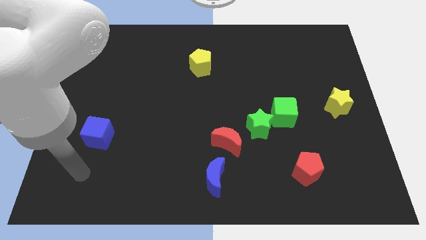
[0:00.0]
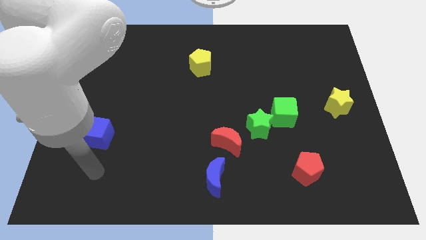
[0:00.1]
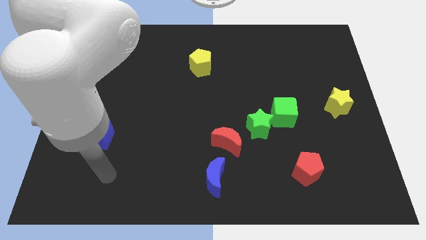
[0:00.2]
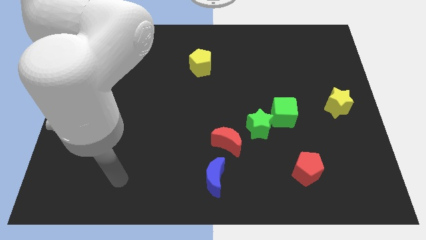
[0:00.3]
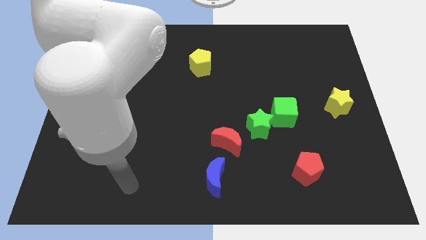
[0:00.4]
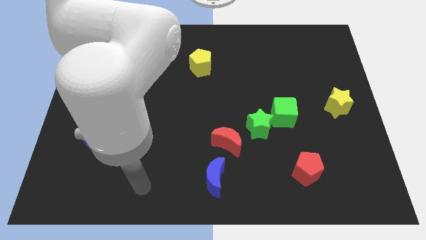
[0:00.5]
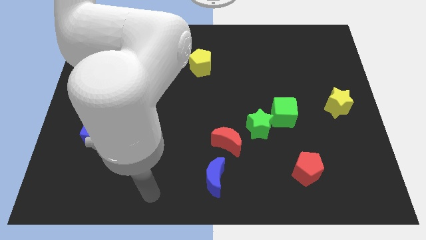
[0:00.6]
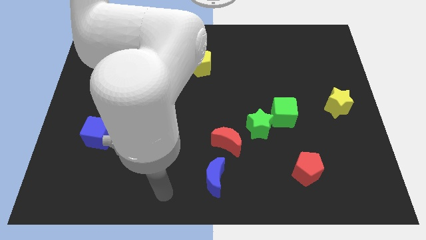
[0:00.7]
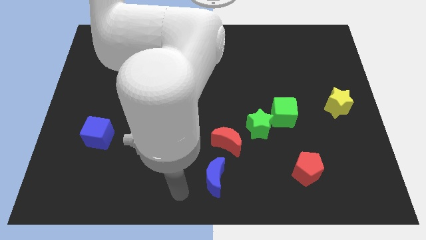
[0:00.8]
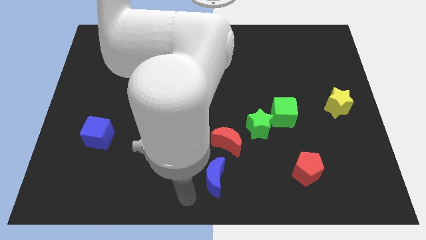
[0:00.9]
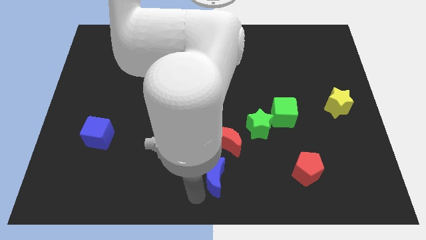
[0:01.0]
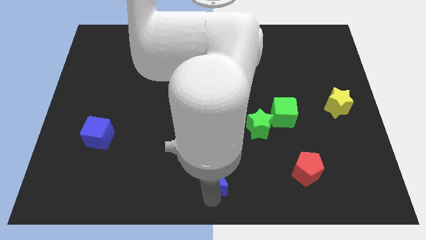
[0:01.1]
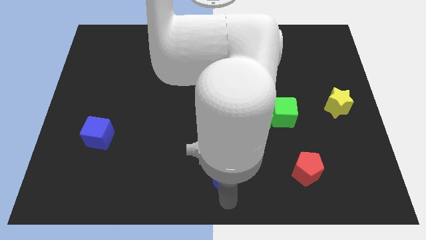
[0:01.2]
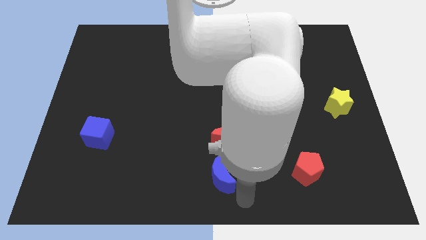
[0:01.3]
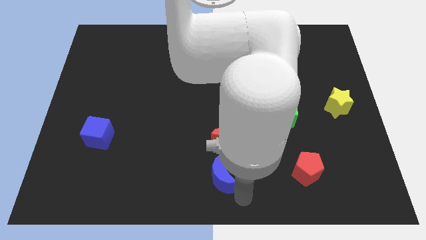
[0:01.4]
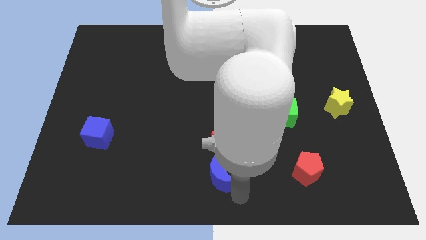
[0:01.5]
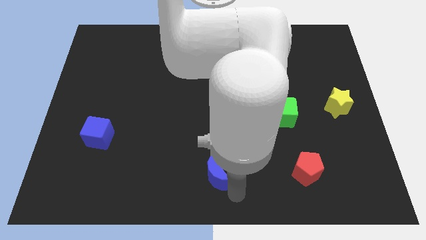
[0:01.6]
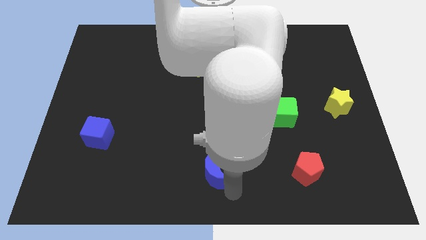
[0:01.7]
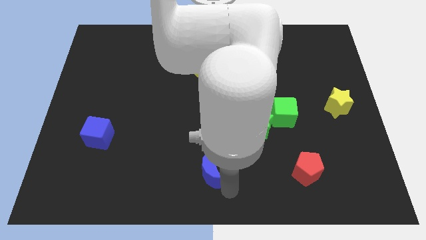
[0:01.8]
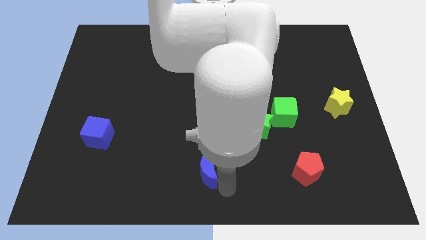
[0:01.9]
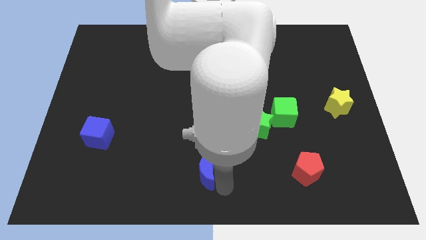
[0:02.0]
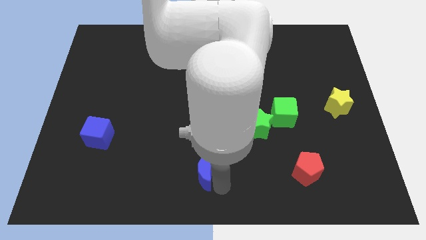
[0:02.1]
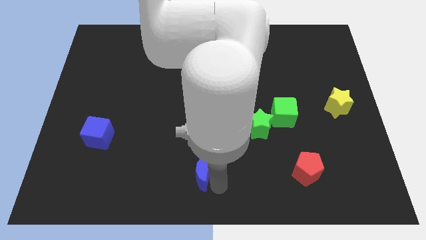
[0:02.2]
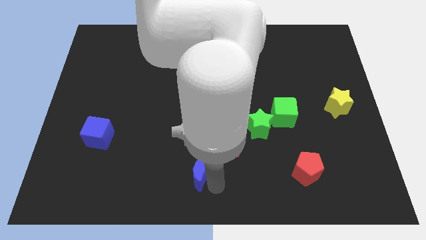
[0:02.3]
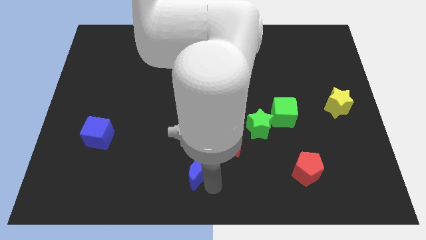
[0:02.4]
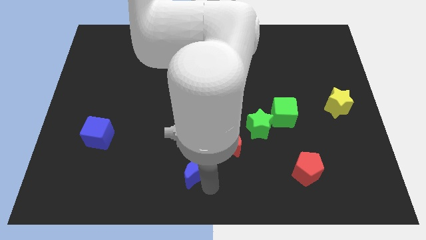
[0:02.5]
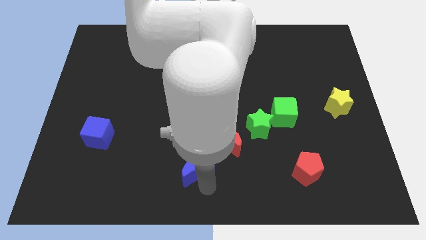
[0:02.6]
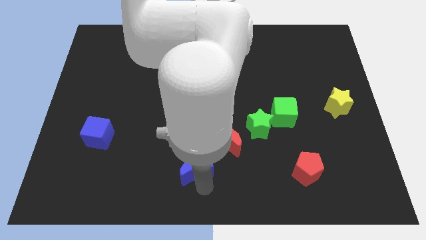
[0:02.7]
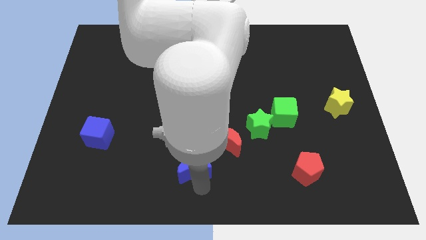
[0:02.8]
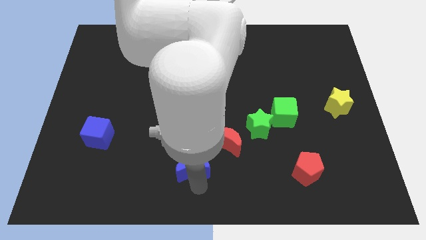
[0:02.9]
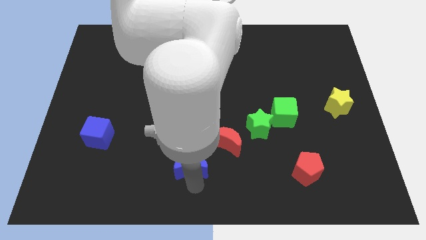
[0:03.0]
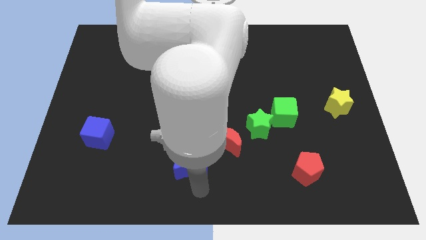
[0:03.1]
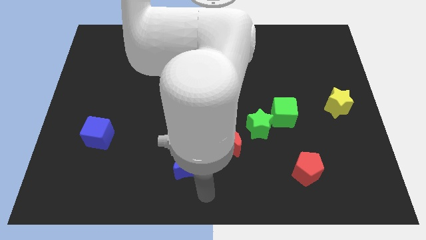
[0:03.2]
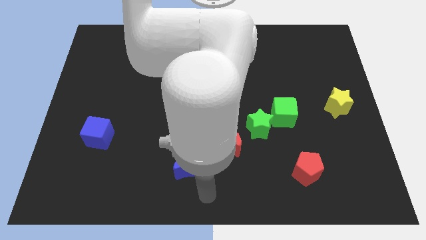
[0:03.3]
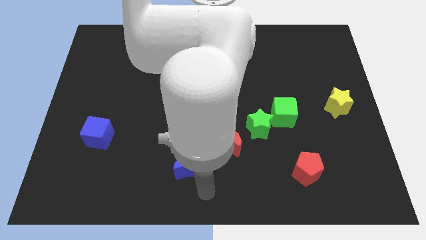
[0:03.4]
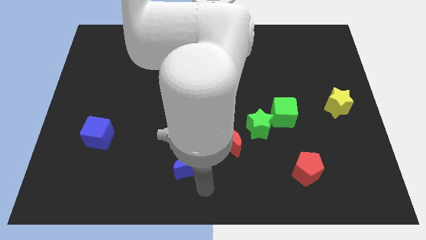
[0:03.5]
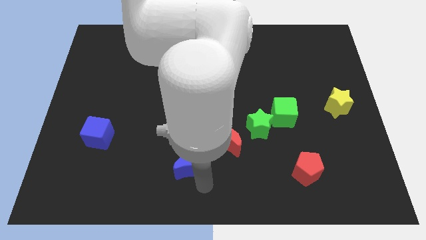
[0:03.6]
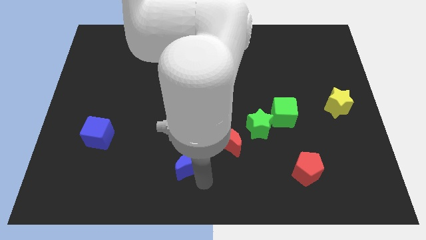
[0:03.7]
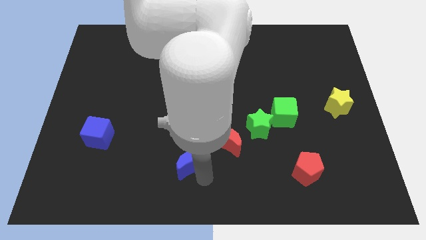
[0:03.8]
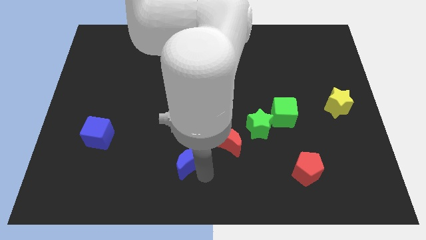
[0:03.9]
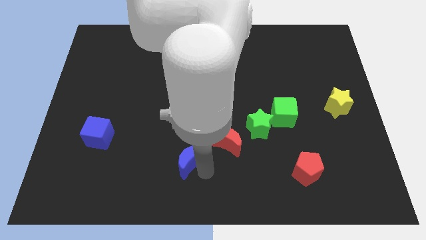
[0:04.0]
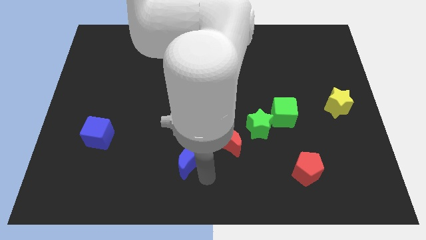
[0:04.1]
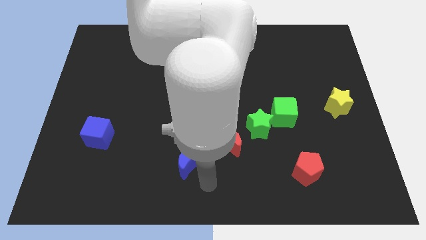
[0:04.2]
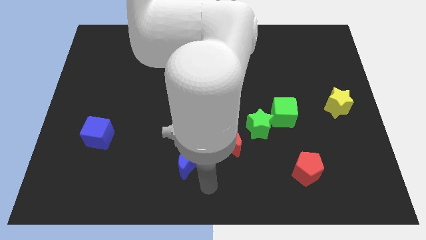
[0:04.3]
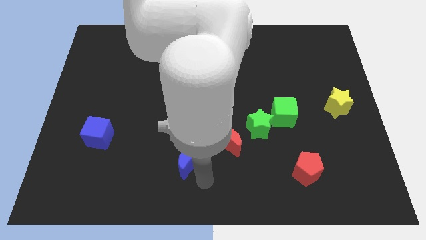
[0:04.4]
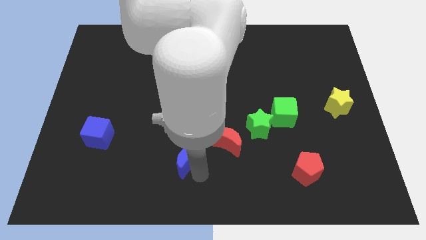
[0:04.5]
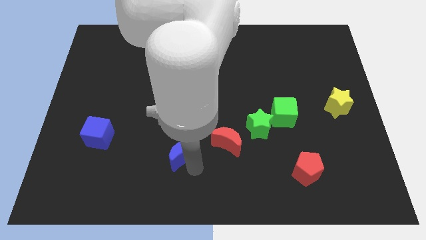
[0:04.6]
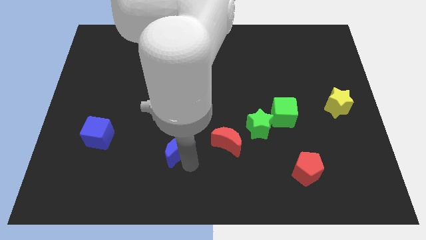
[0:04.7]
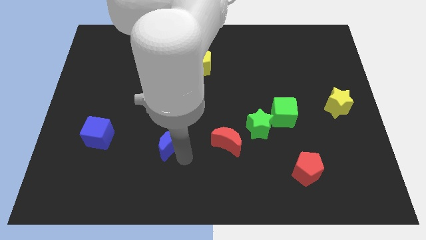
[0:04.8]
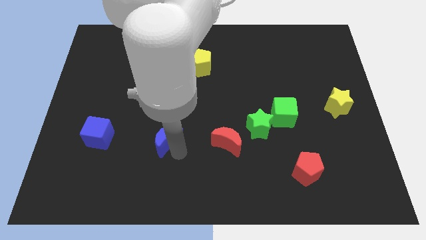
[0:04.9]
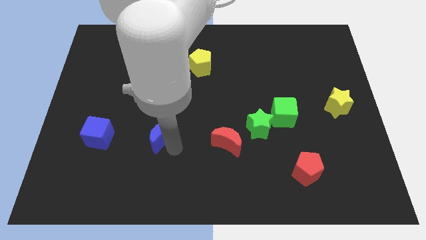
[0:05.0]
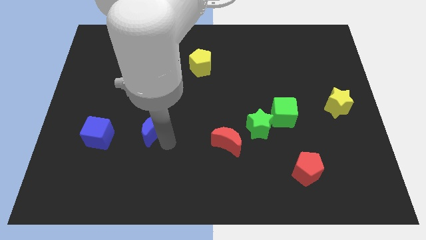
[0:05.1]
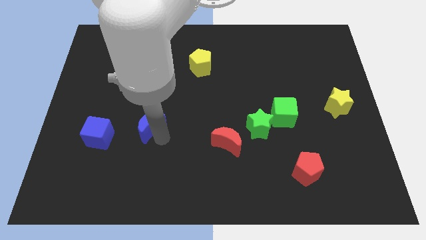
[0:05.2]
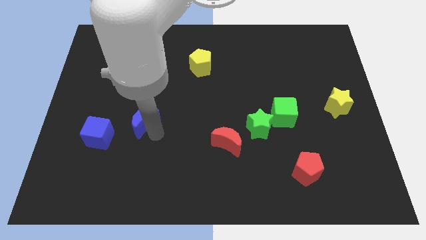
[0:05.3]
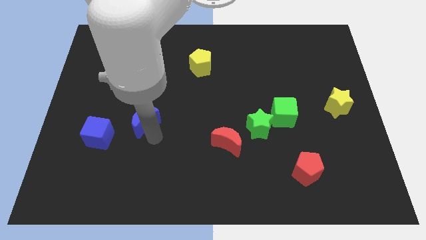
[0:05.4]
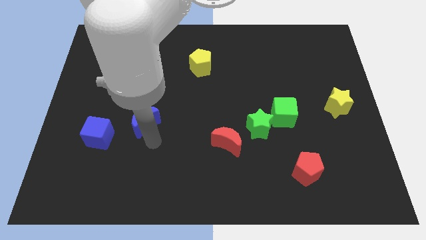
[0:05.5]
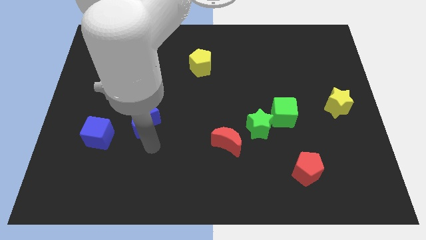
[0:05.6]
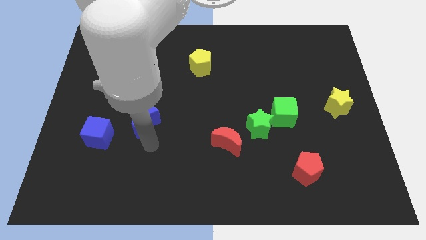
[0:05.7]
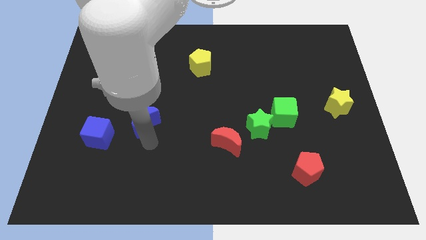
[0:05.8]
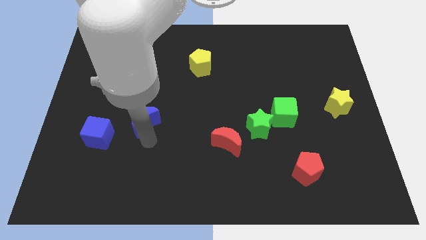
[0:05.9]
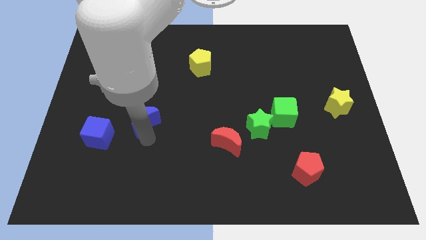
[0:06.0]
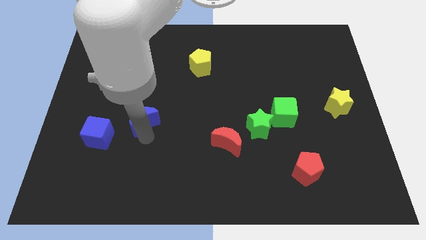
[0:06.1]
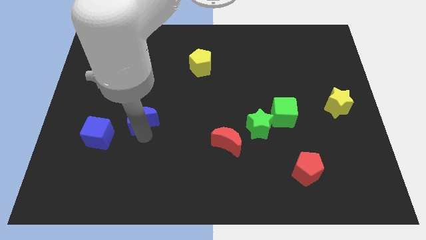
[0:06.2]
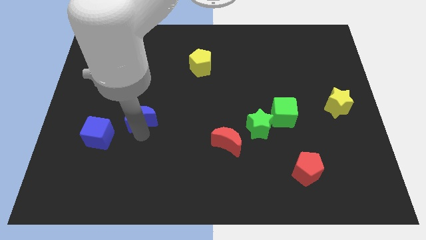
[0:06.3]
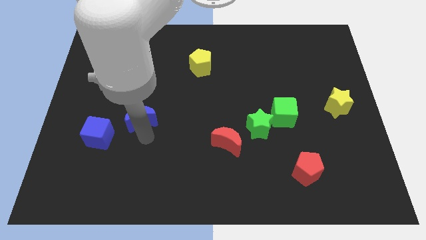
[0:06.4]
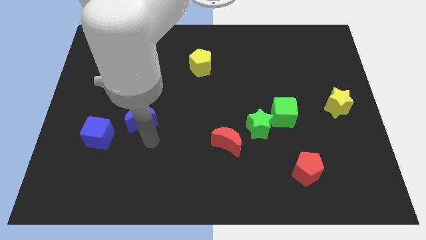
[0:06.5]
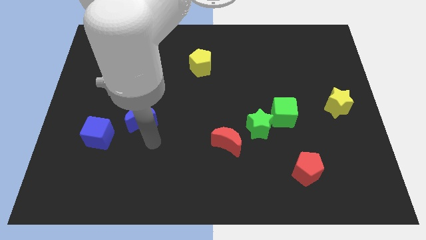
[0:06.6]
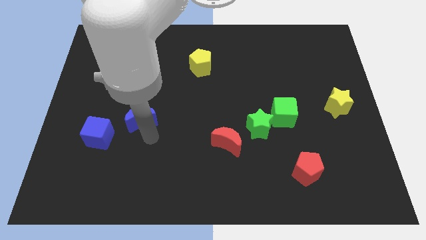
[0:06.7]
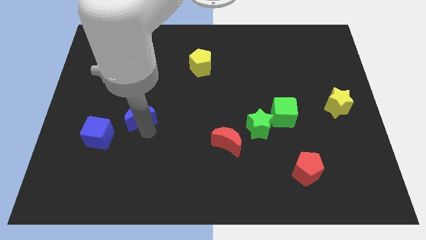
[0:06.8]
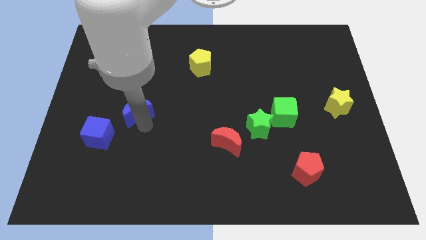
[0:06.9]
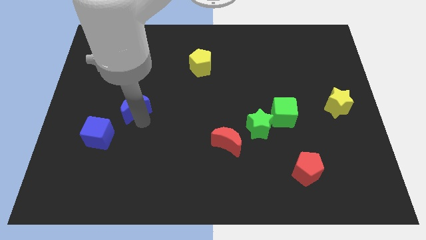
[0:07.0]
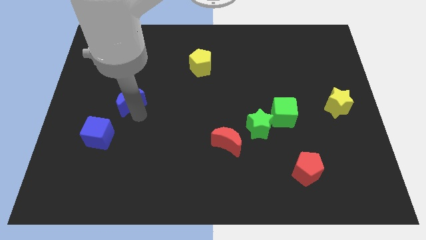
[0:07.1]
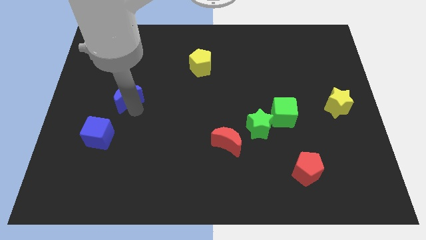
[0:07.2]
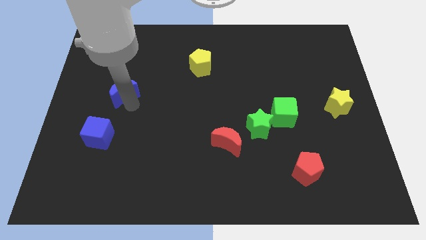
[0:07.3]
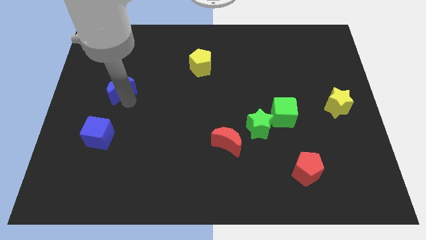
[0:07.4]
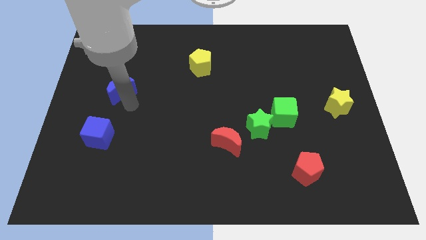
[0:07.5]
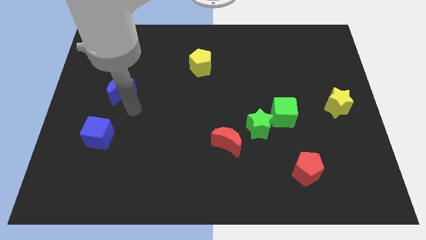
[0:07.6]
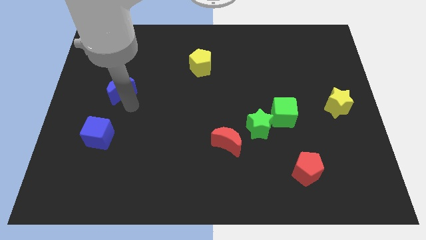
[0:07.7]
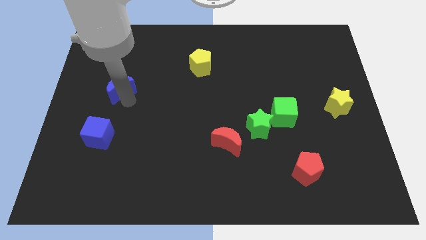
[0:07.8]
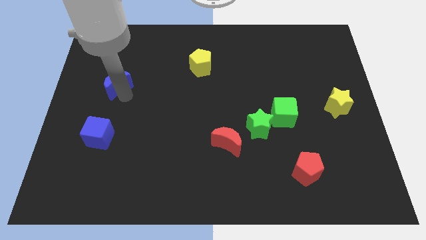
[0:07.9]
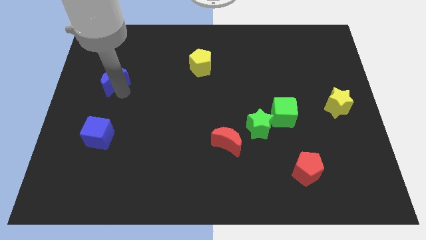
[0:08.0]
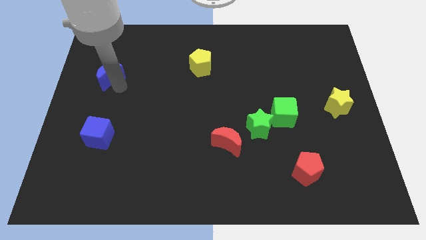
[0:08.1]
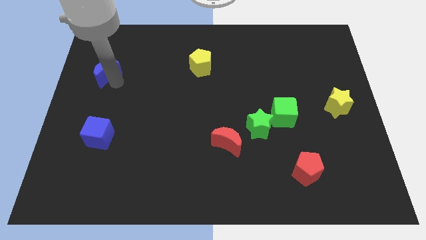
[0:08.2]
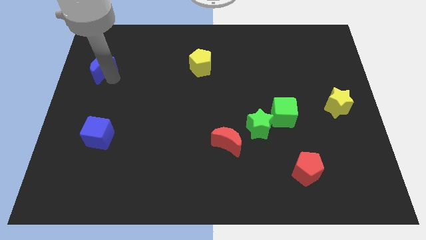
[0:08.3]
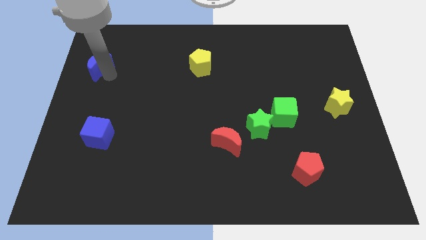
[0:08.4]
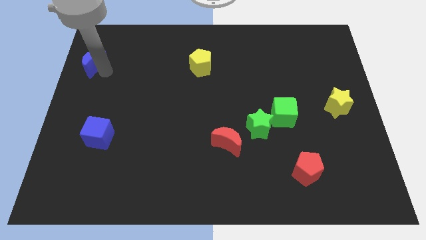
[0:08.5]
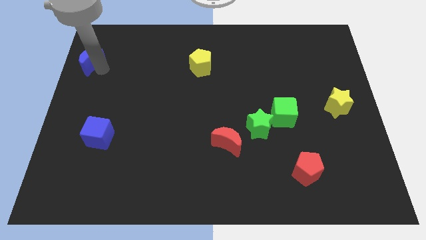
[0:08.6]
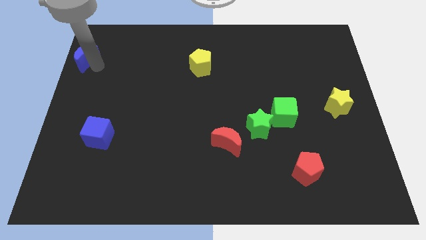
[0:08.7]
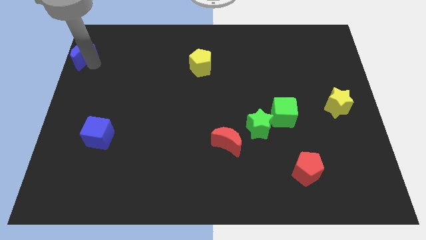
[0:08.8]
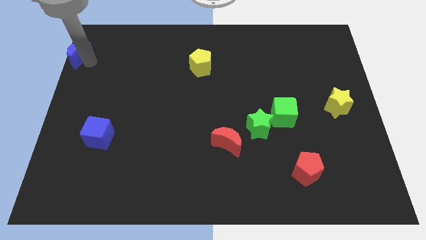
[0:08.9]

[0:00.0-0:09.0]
move the blue moon to the top left corner
